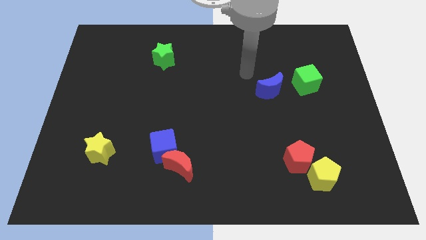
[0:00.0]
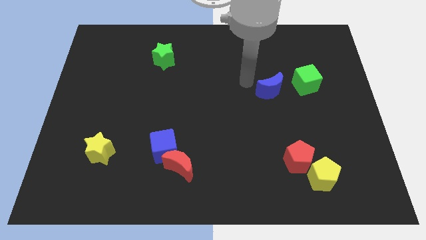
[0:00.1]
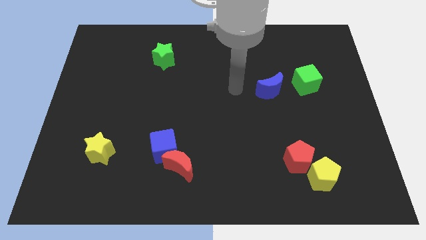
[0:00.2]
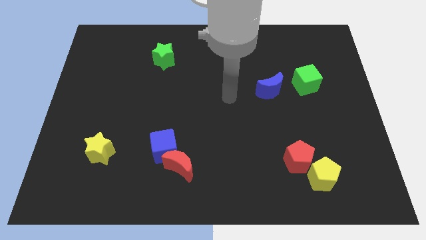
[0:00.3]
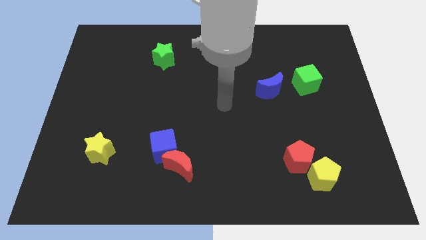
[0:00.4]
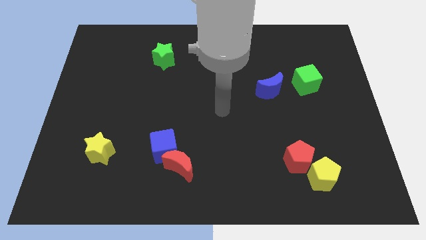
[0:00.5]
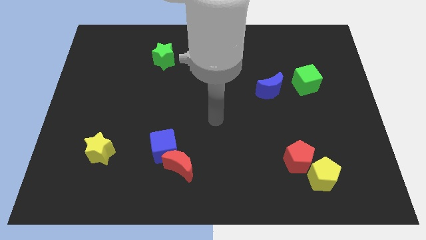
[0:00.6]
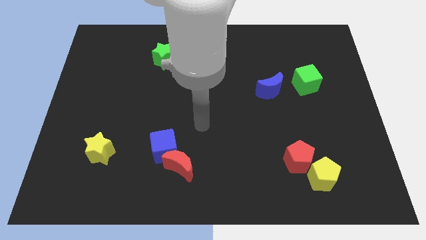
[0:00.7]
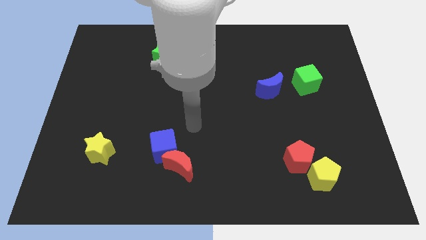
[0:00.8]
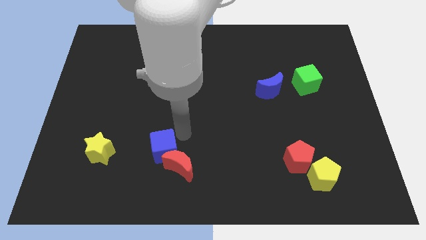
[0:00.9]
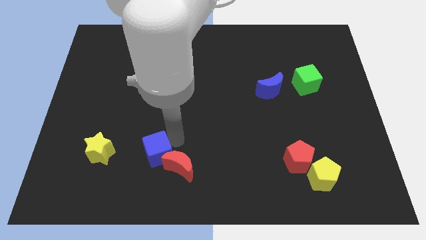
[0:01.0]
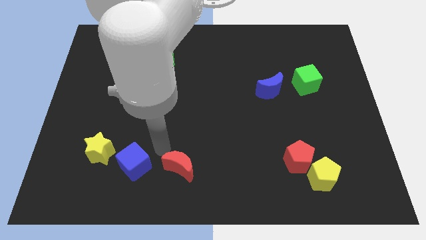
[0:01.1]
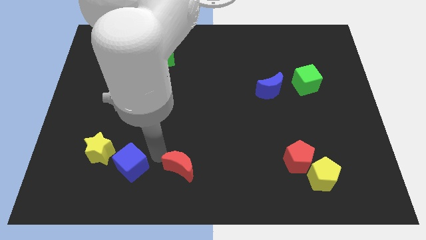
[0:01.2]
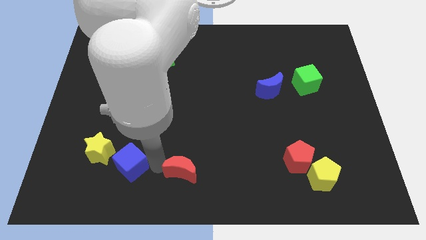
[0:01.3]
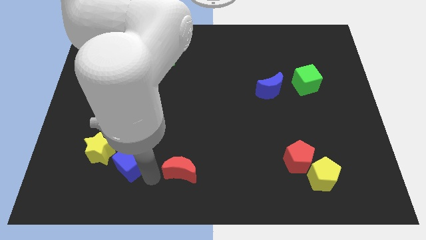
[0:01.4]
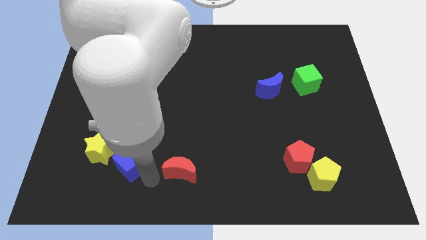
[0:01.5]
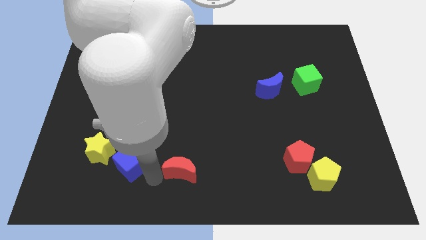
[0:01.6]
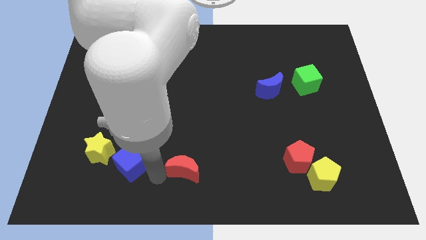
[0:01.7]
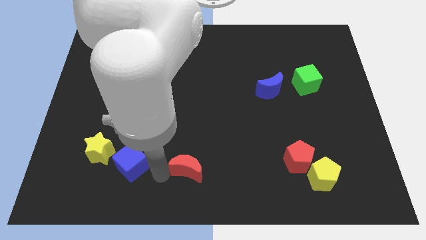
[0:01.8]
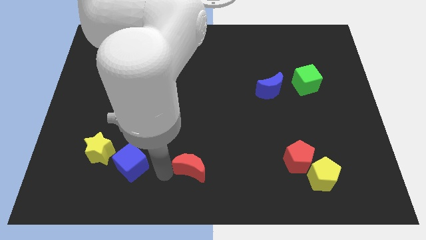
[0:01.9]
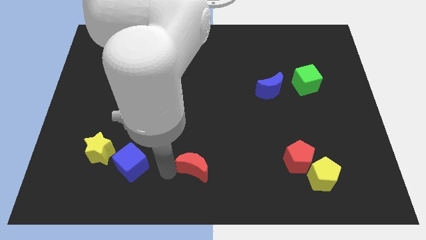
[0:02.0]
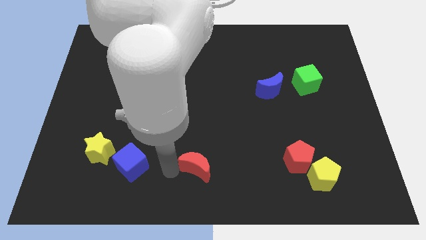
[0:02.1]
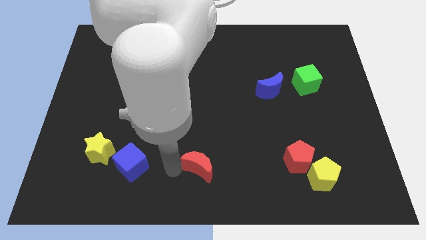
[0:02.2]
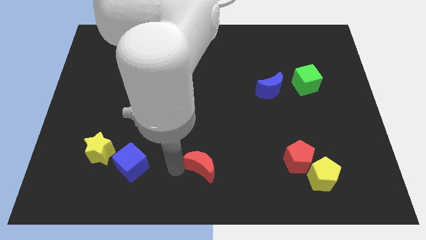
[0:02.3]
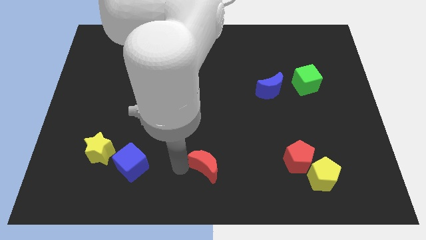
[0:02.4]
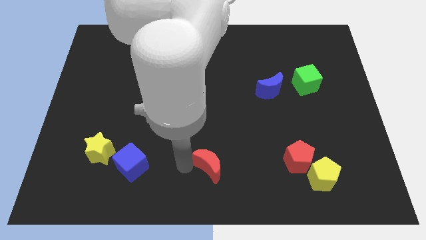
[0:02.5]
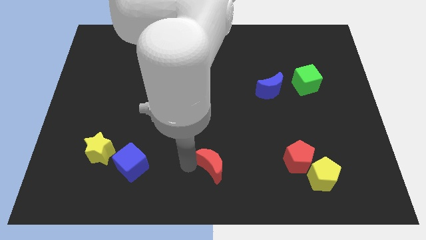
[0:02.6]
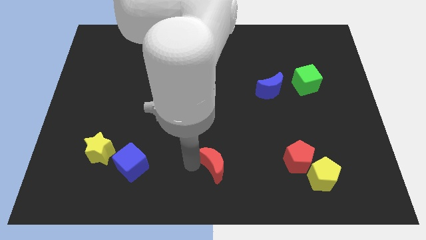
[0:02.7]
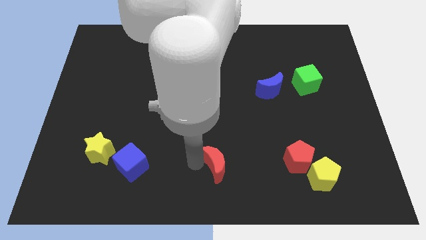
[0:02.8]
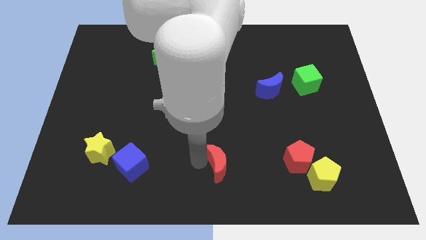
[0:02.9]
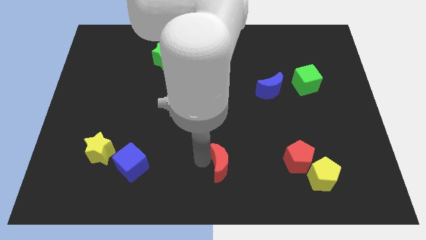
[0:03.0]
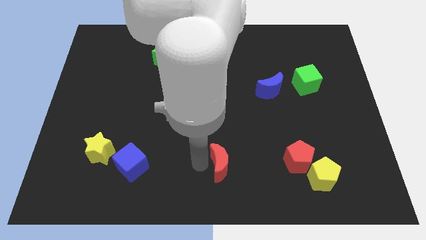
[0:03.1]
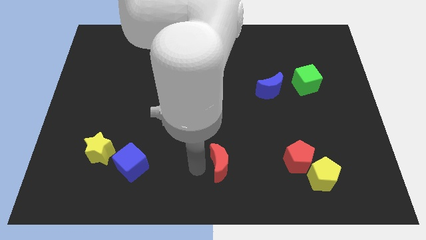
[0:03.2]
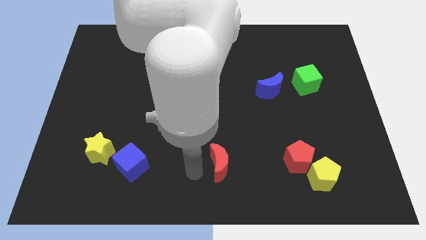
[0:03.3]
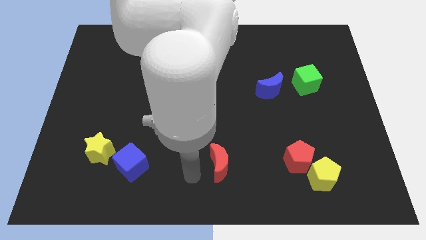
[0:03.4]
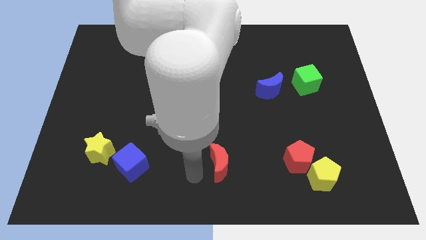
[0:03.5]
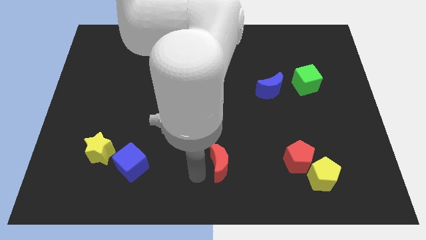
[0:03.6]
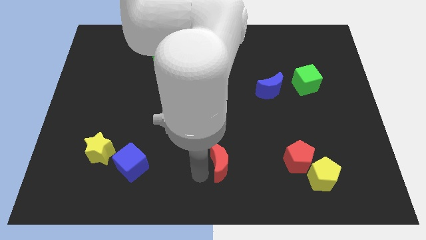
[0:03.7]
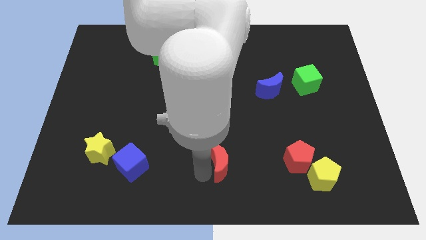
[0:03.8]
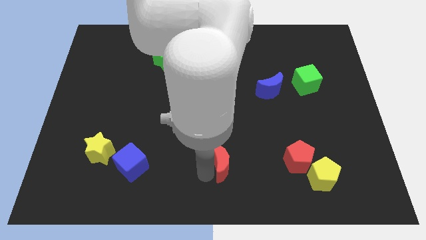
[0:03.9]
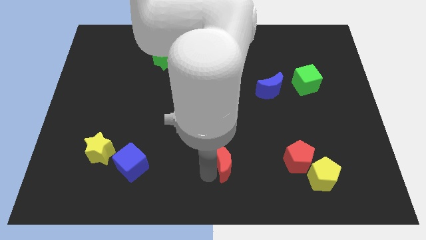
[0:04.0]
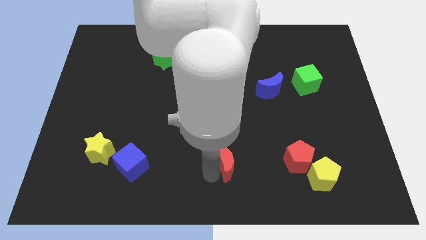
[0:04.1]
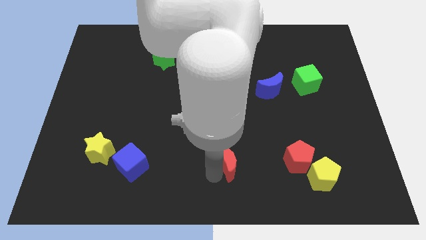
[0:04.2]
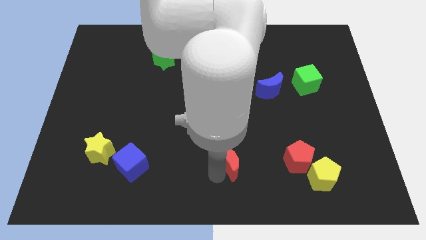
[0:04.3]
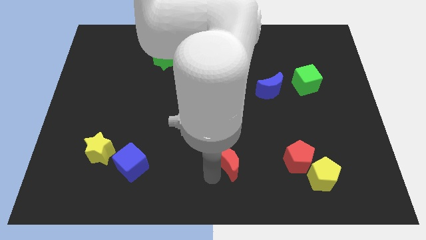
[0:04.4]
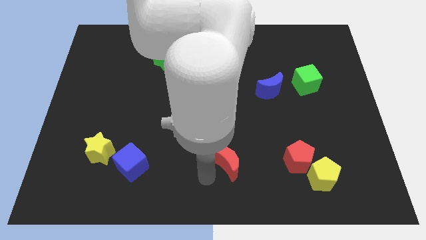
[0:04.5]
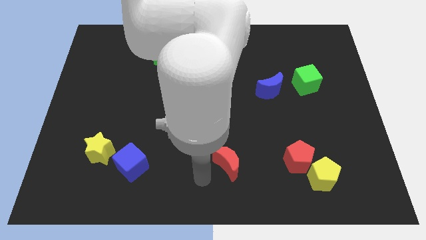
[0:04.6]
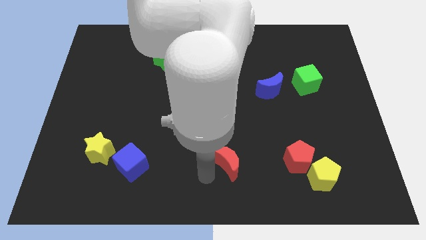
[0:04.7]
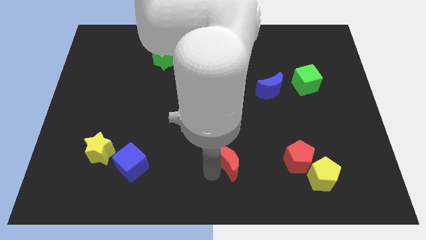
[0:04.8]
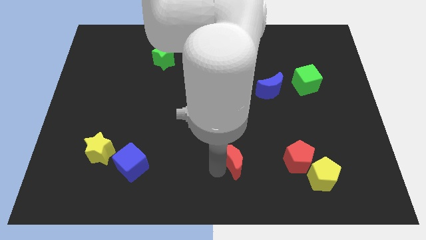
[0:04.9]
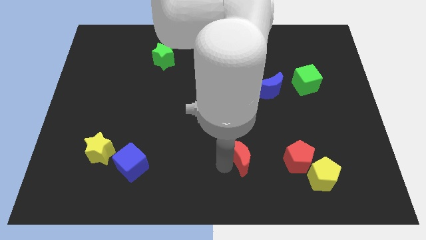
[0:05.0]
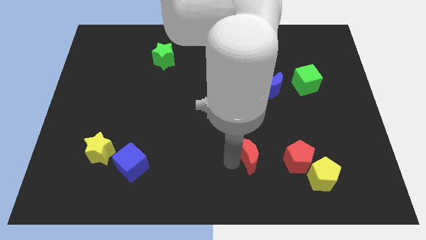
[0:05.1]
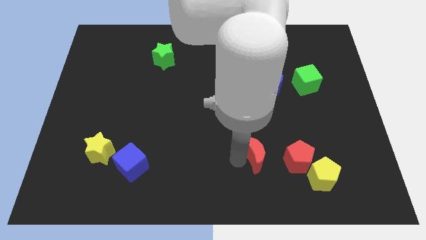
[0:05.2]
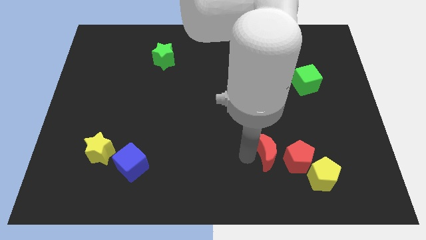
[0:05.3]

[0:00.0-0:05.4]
put the red moon to the top left side of the yellow pentagon

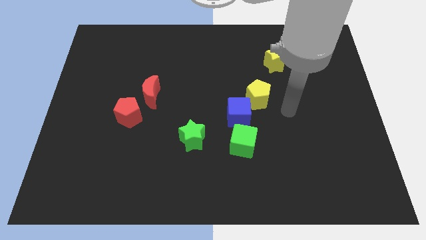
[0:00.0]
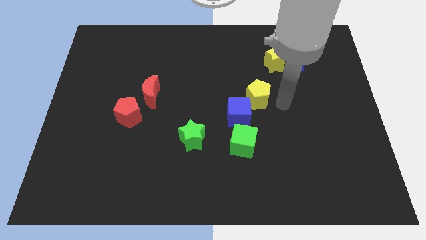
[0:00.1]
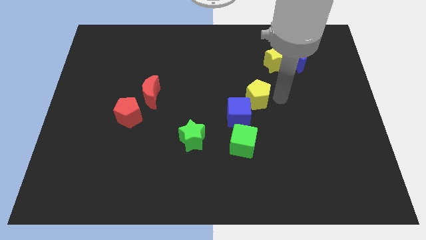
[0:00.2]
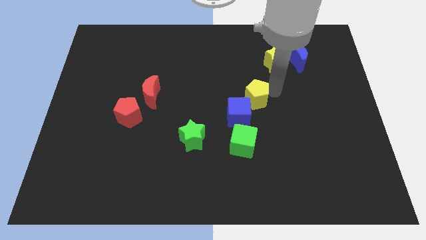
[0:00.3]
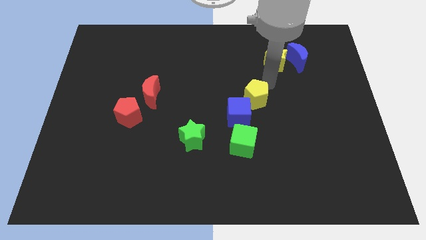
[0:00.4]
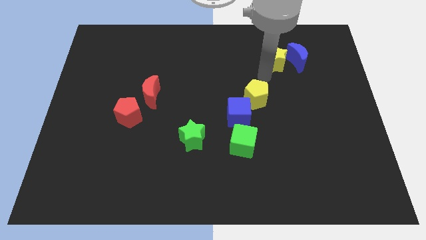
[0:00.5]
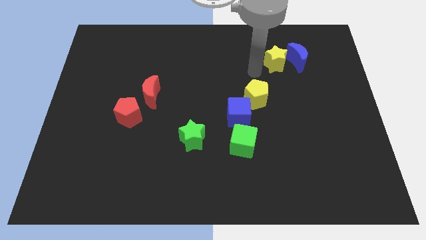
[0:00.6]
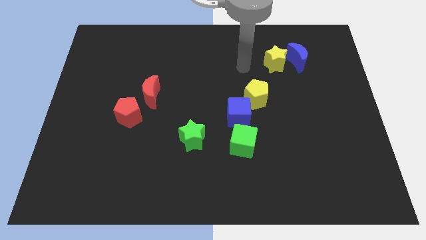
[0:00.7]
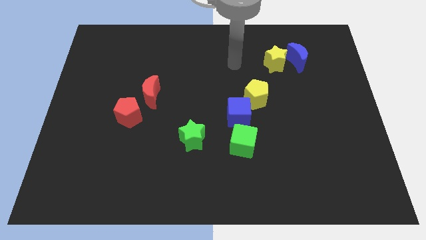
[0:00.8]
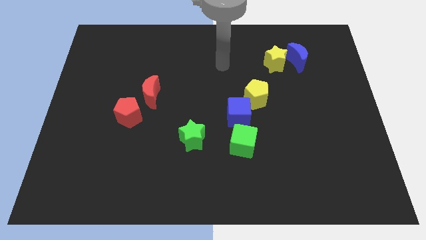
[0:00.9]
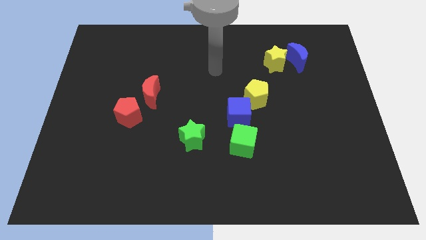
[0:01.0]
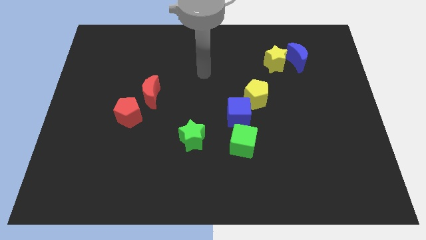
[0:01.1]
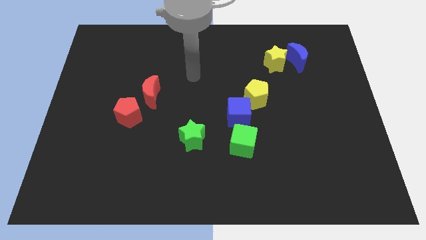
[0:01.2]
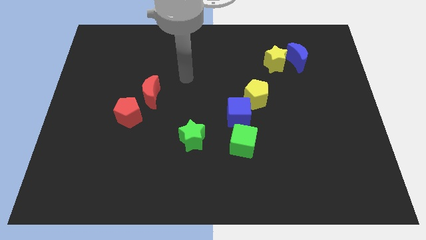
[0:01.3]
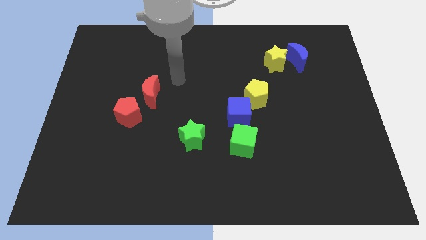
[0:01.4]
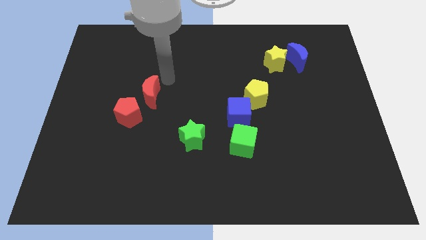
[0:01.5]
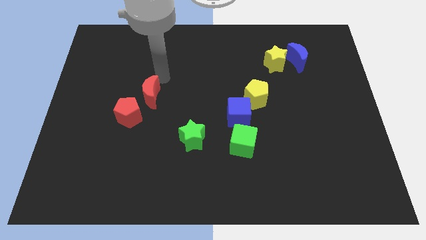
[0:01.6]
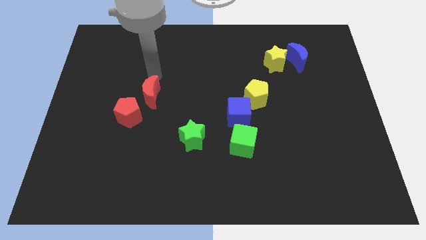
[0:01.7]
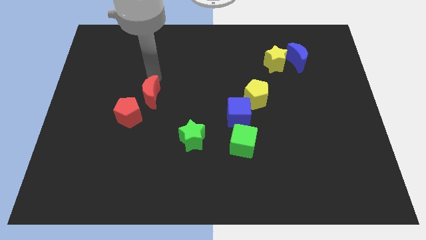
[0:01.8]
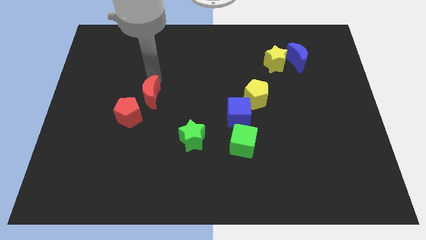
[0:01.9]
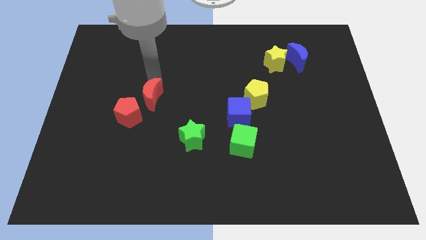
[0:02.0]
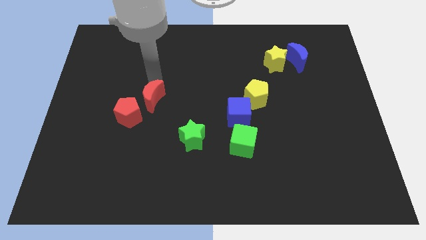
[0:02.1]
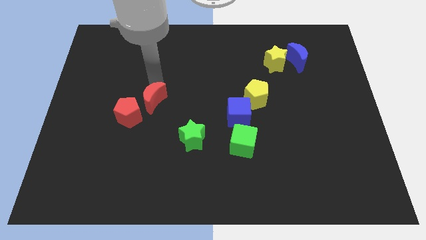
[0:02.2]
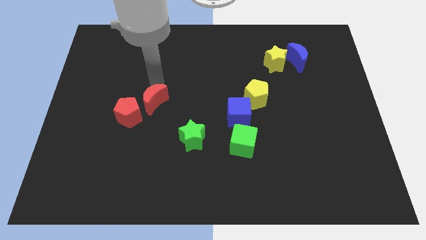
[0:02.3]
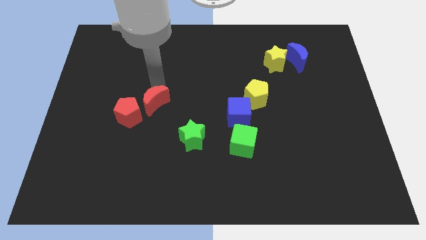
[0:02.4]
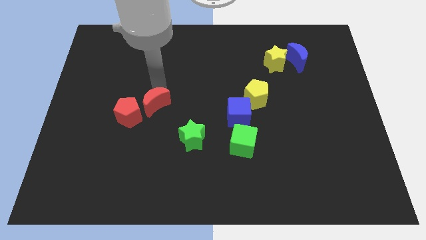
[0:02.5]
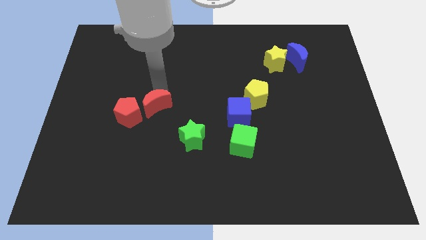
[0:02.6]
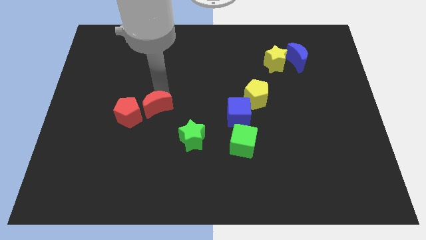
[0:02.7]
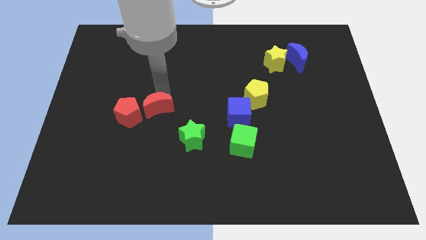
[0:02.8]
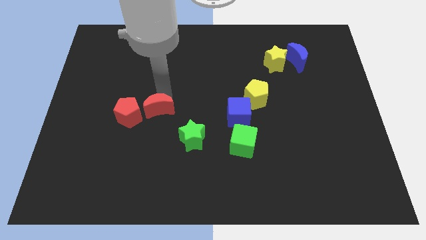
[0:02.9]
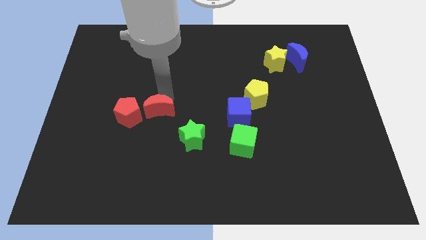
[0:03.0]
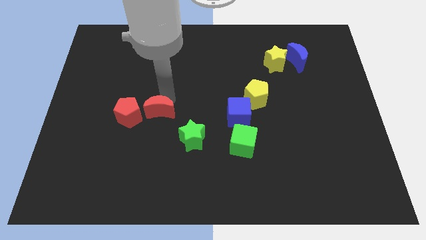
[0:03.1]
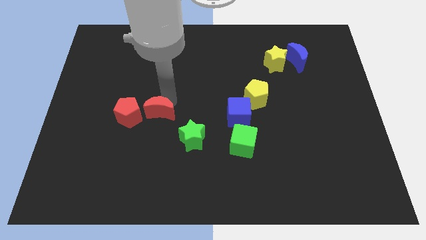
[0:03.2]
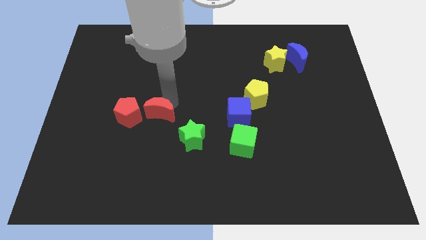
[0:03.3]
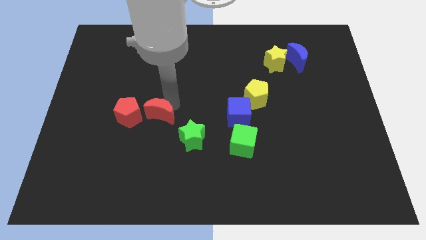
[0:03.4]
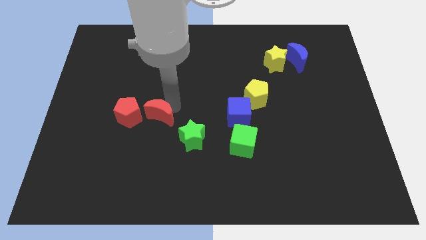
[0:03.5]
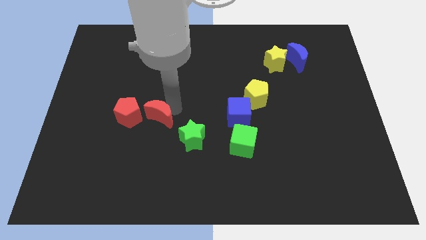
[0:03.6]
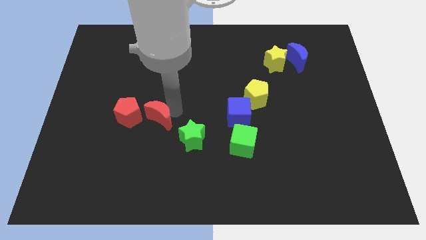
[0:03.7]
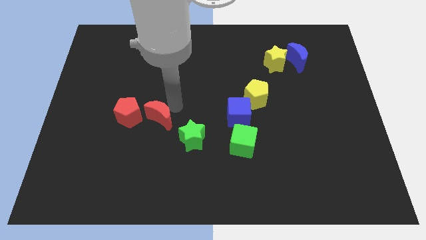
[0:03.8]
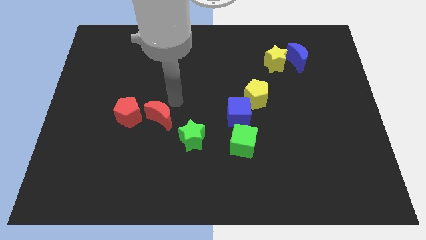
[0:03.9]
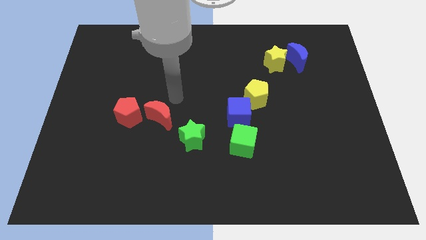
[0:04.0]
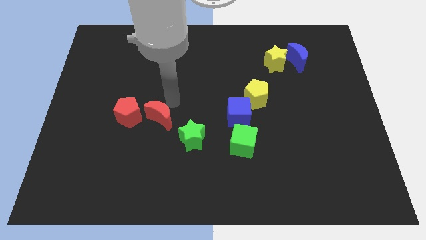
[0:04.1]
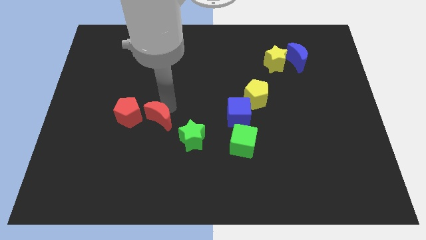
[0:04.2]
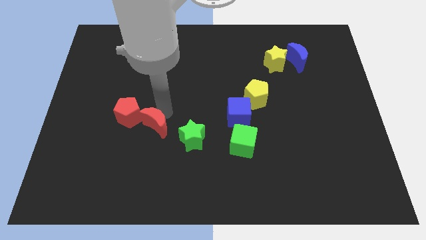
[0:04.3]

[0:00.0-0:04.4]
move the red moon to the left side of the green star
